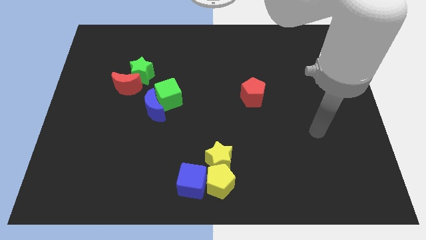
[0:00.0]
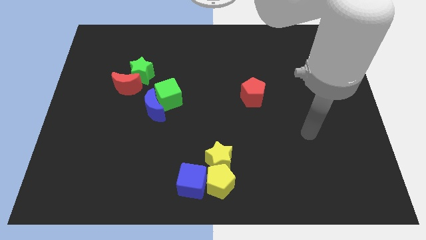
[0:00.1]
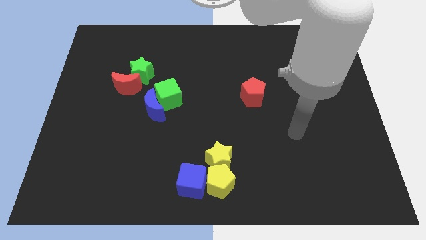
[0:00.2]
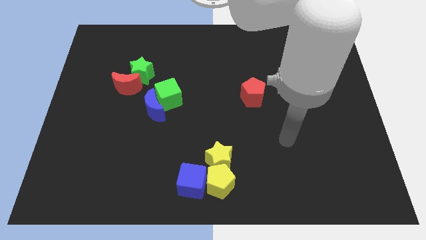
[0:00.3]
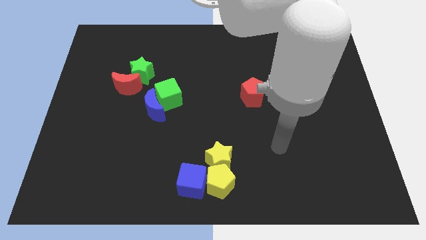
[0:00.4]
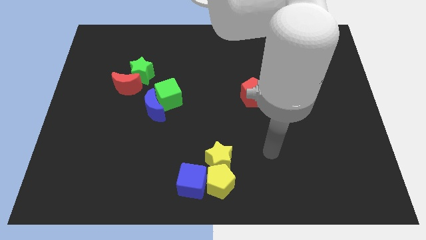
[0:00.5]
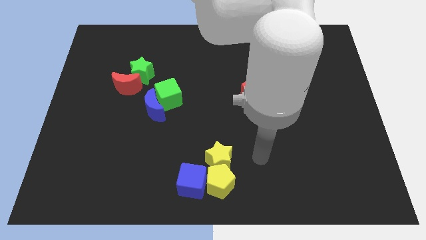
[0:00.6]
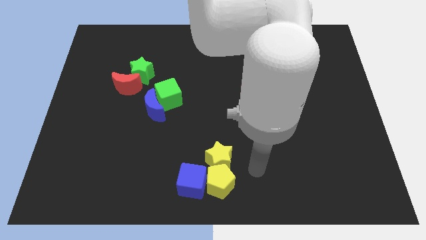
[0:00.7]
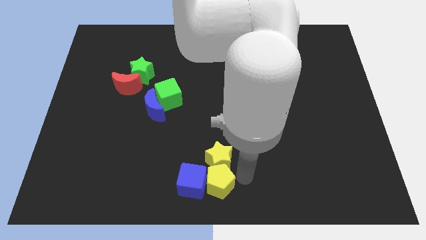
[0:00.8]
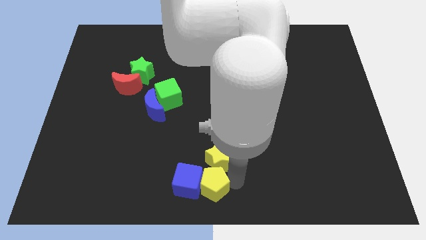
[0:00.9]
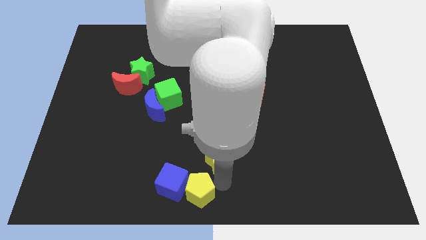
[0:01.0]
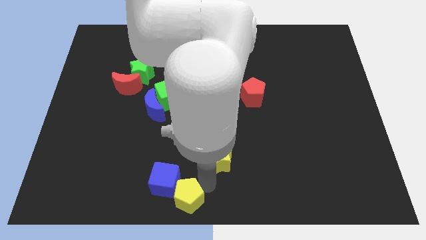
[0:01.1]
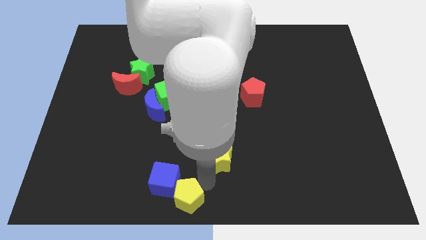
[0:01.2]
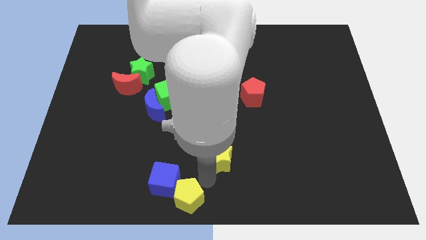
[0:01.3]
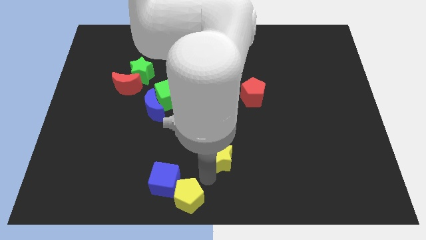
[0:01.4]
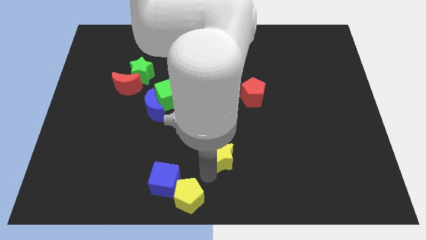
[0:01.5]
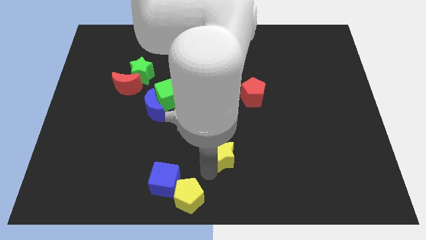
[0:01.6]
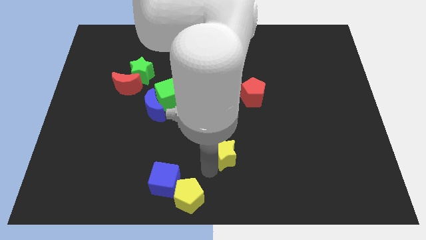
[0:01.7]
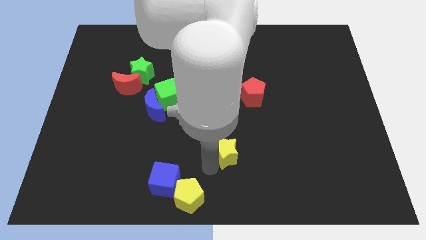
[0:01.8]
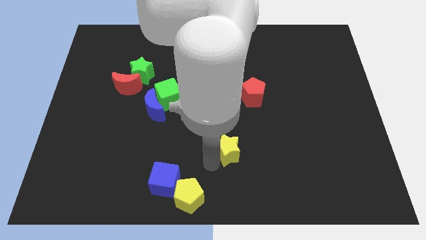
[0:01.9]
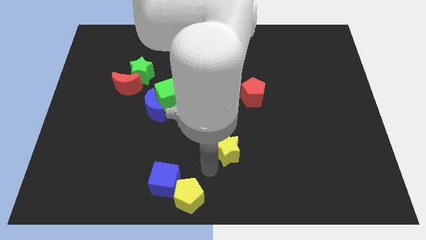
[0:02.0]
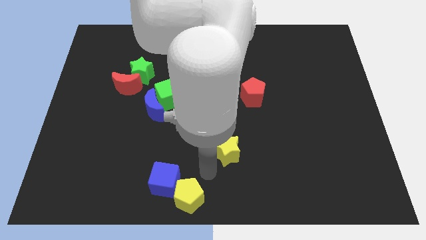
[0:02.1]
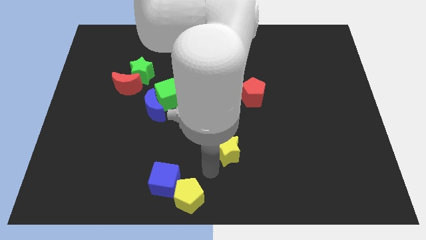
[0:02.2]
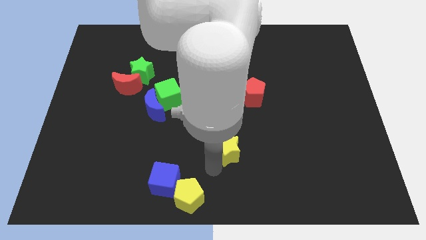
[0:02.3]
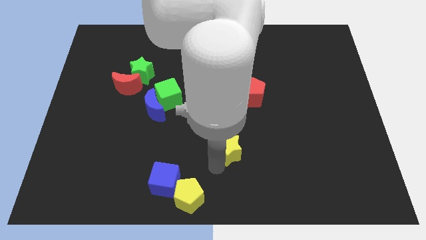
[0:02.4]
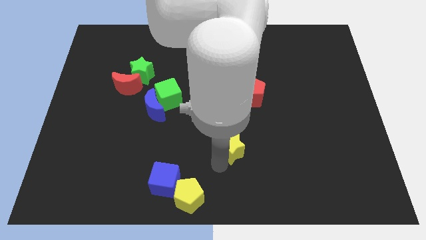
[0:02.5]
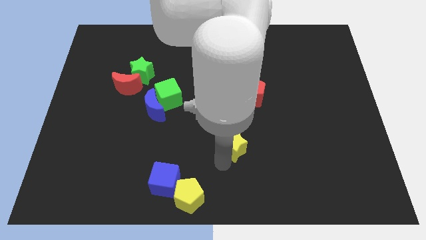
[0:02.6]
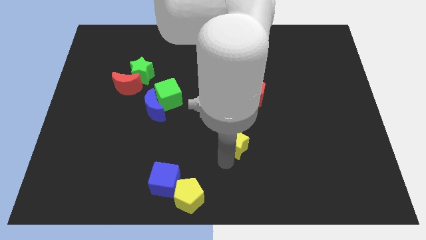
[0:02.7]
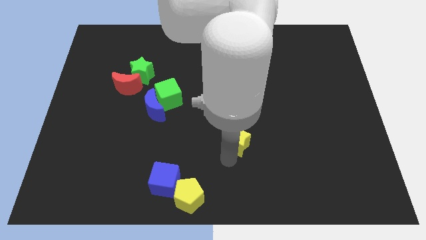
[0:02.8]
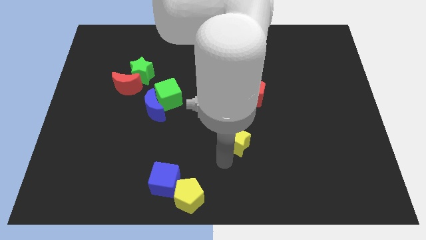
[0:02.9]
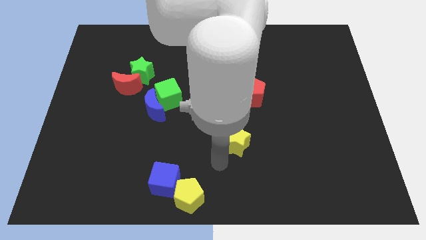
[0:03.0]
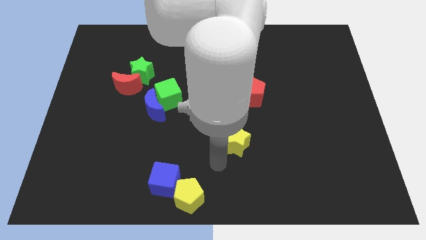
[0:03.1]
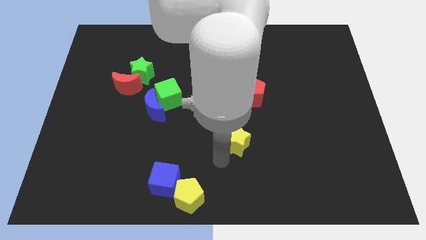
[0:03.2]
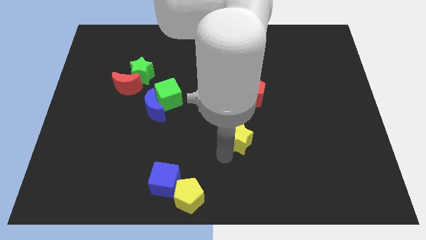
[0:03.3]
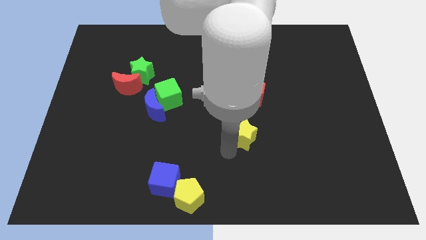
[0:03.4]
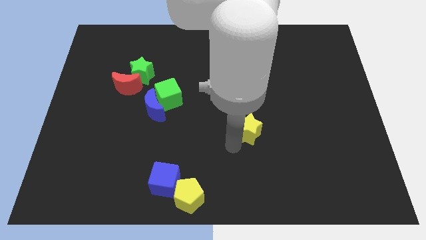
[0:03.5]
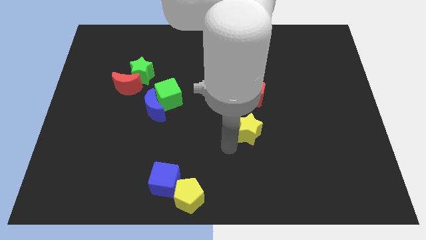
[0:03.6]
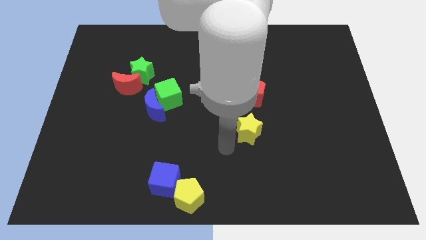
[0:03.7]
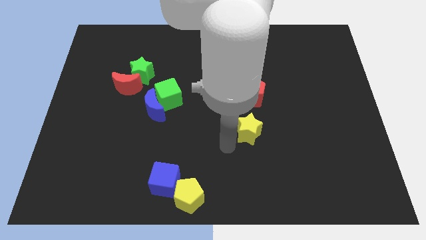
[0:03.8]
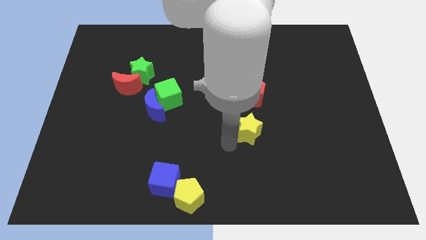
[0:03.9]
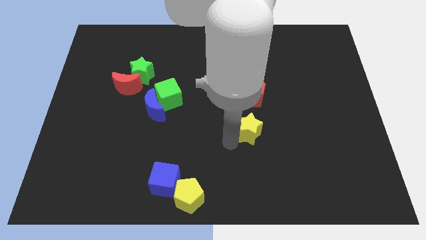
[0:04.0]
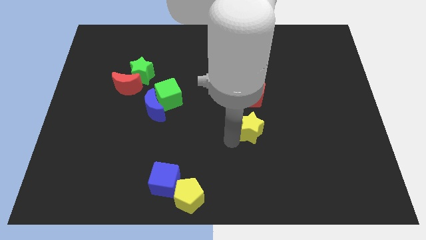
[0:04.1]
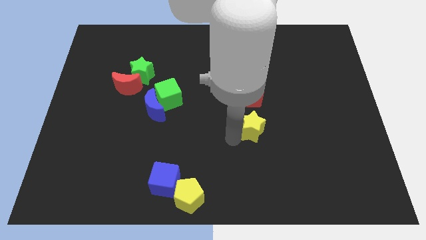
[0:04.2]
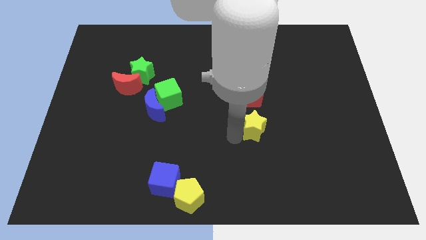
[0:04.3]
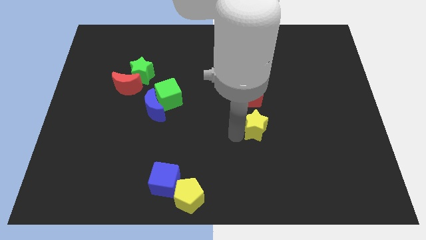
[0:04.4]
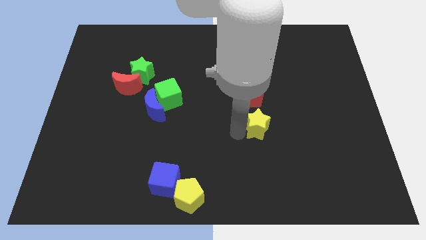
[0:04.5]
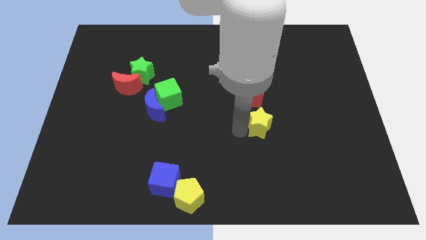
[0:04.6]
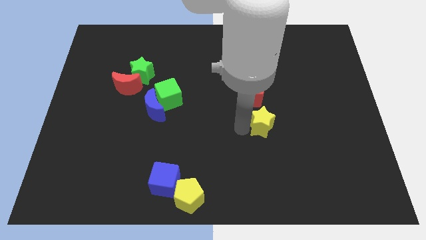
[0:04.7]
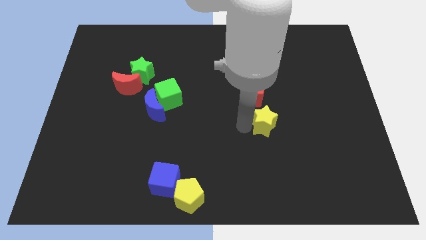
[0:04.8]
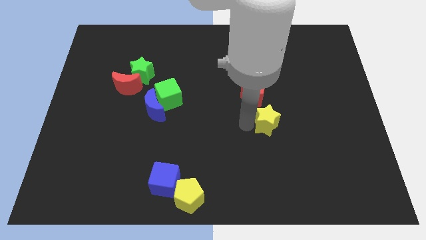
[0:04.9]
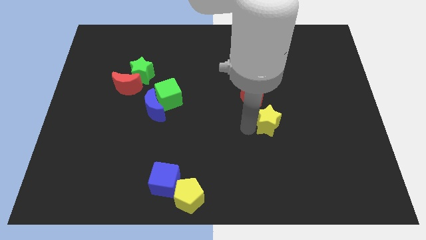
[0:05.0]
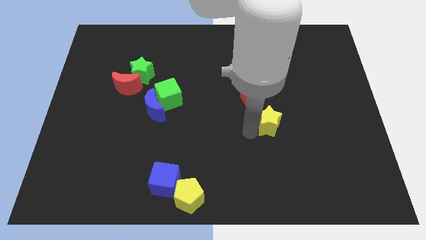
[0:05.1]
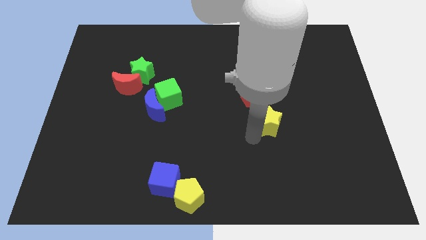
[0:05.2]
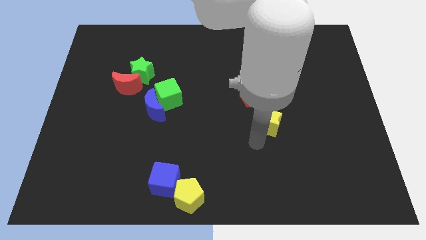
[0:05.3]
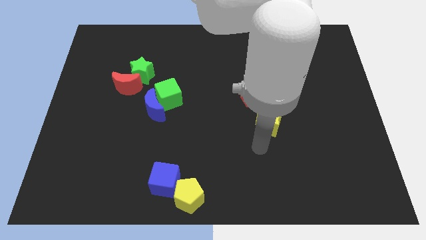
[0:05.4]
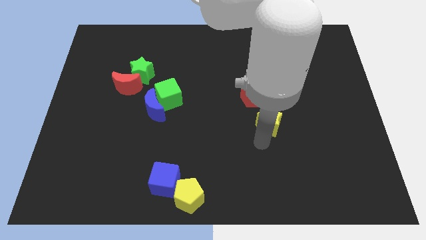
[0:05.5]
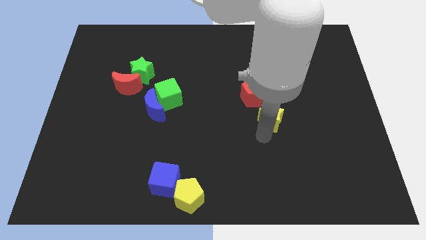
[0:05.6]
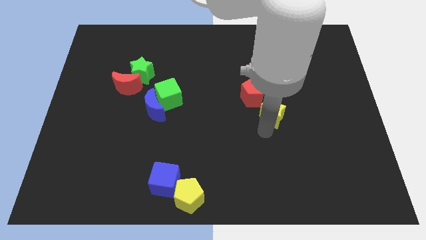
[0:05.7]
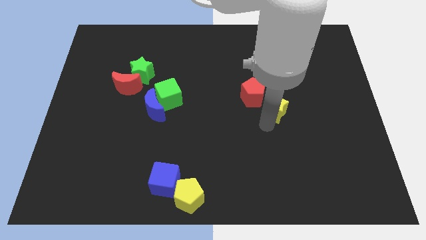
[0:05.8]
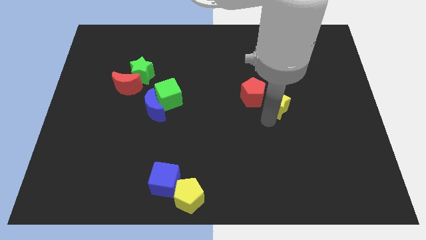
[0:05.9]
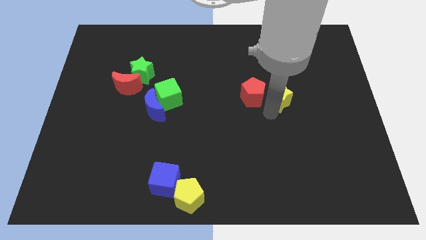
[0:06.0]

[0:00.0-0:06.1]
move the yellow star diagonally upwards and to the right

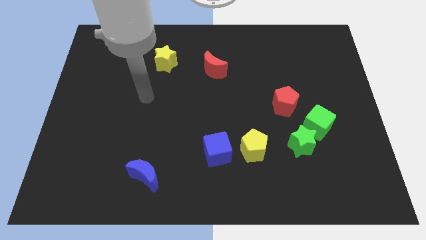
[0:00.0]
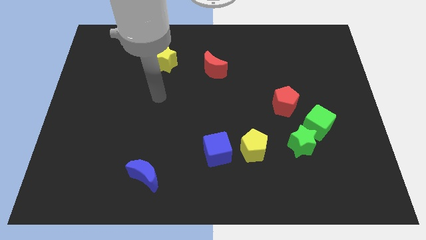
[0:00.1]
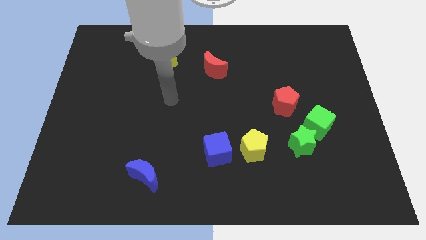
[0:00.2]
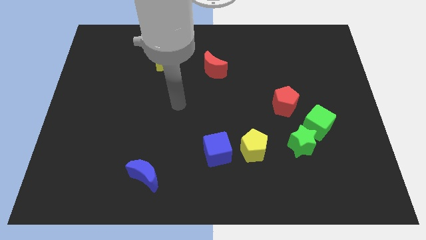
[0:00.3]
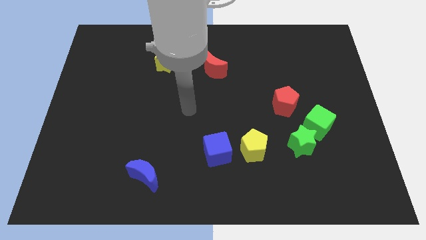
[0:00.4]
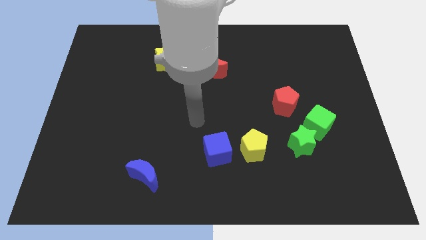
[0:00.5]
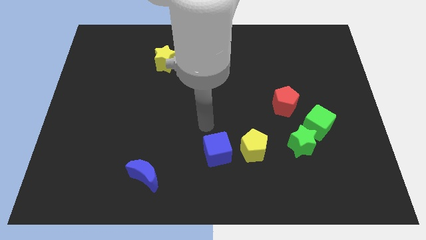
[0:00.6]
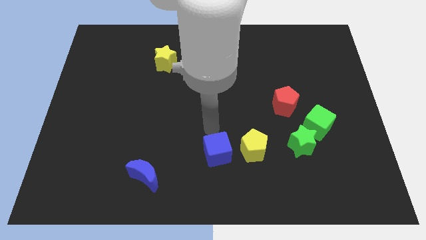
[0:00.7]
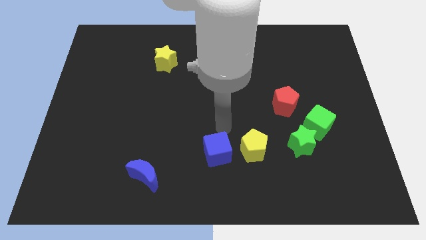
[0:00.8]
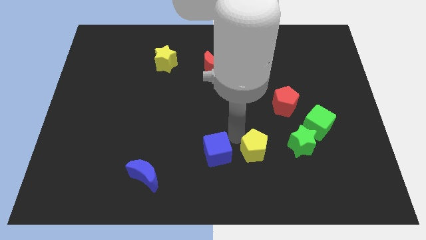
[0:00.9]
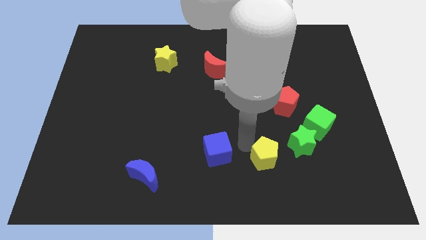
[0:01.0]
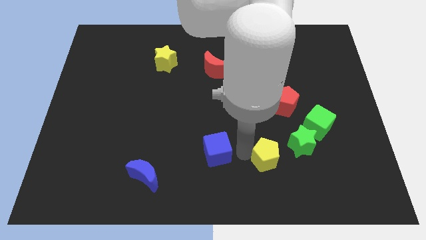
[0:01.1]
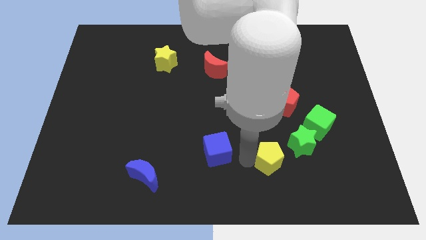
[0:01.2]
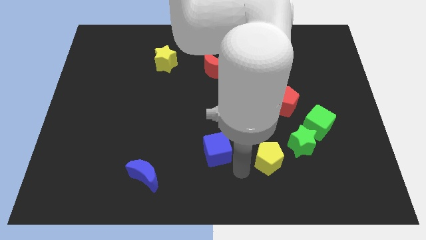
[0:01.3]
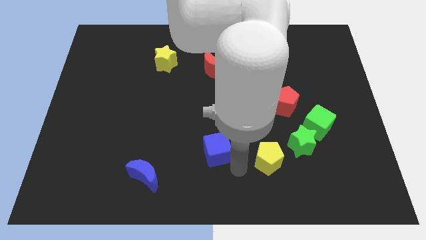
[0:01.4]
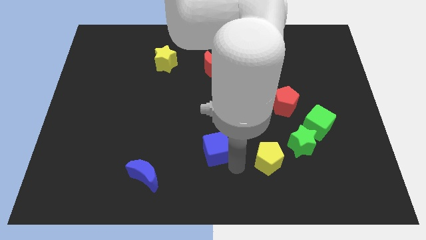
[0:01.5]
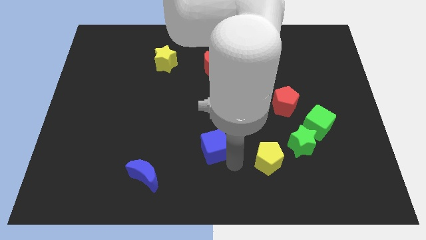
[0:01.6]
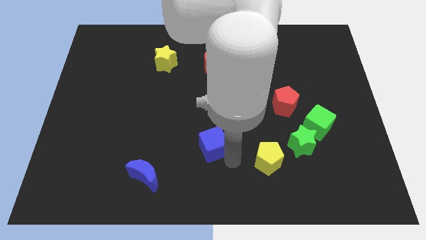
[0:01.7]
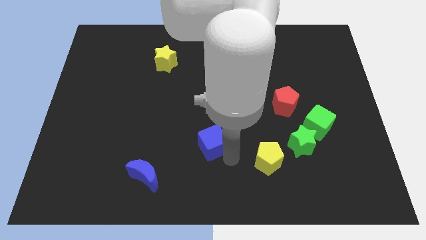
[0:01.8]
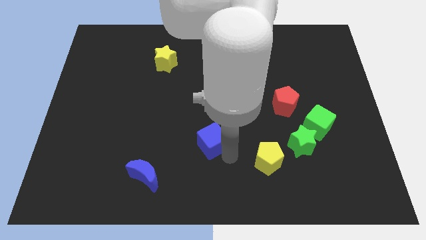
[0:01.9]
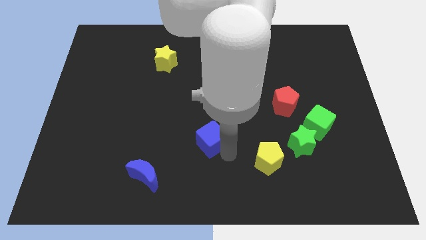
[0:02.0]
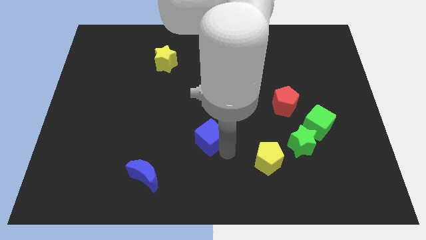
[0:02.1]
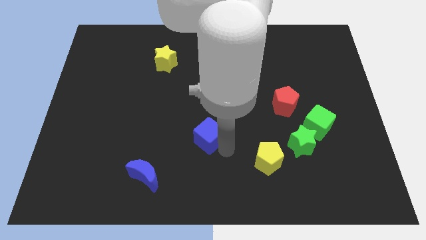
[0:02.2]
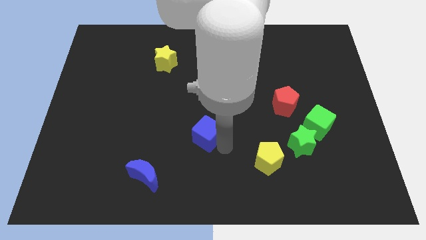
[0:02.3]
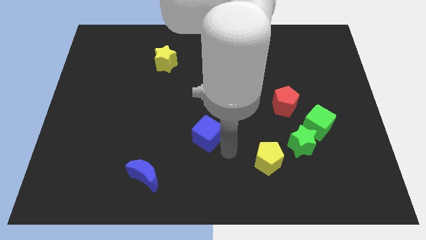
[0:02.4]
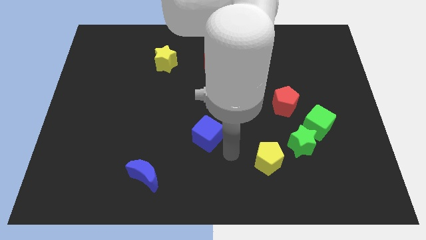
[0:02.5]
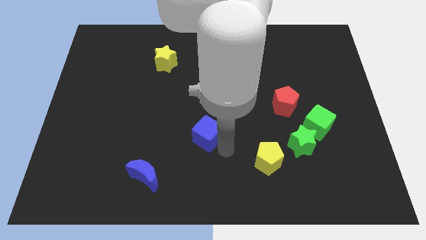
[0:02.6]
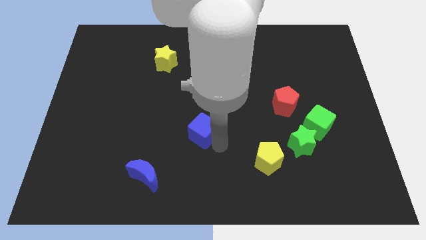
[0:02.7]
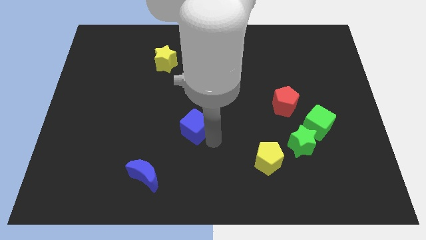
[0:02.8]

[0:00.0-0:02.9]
move the blue cube up and left a bit
